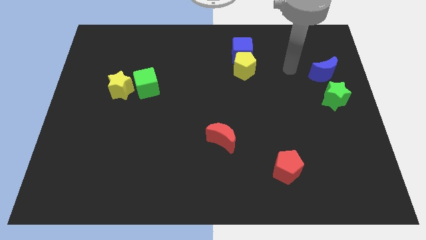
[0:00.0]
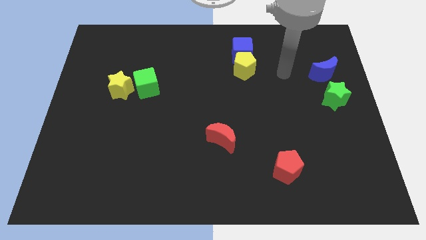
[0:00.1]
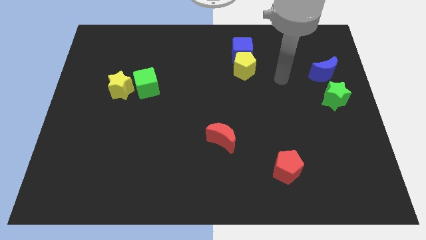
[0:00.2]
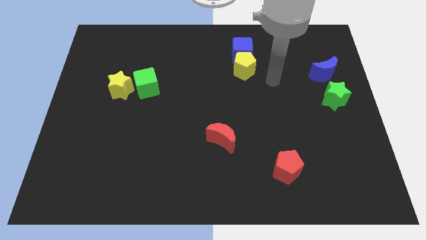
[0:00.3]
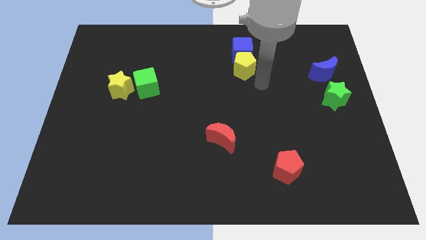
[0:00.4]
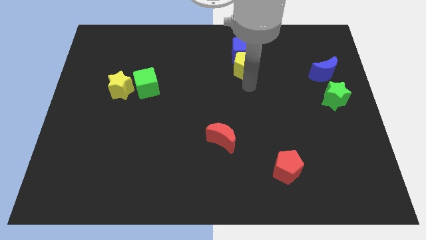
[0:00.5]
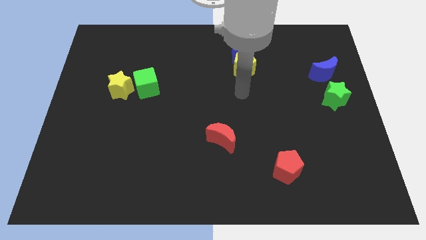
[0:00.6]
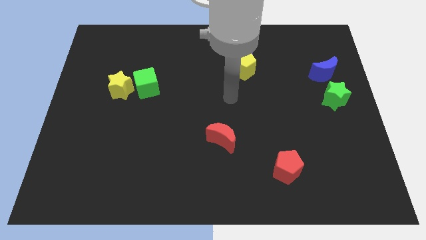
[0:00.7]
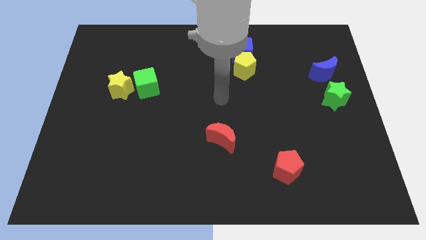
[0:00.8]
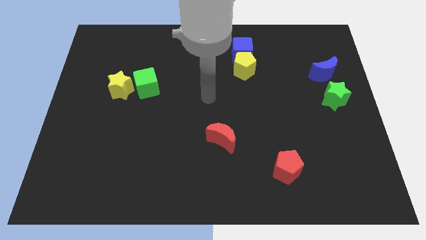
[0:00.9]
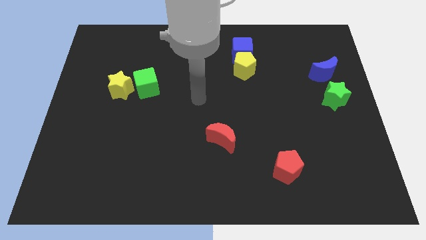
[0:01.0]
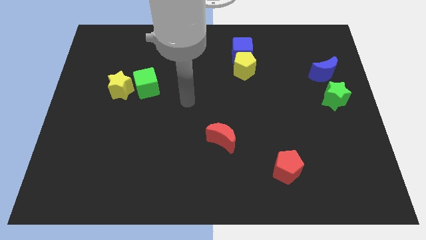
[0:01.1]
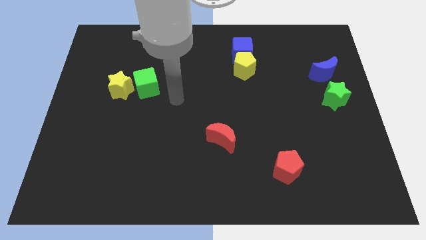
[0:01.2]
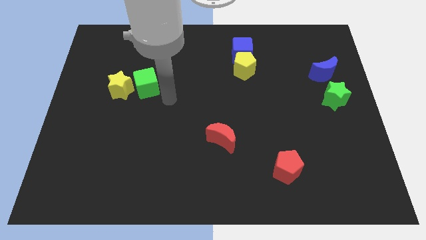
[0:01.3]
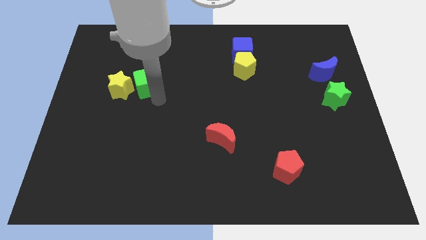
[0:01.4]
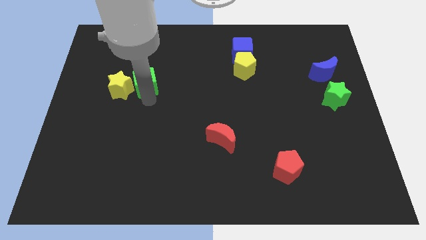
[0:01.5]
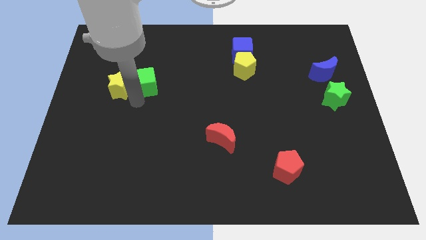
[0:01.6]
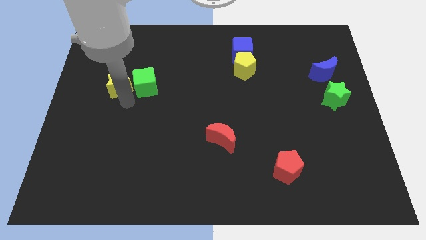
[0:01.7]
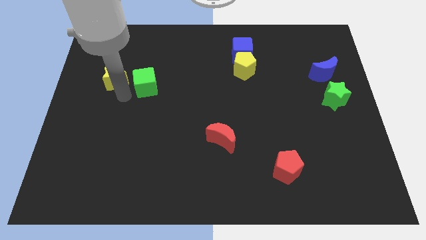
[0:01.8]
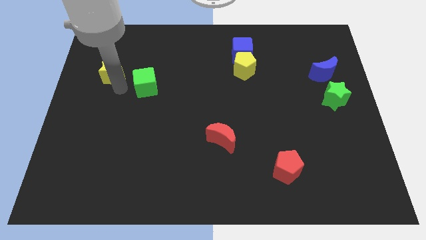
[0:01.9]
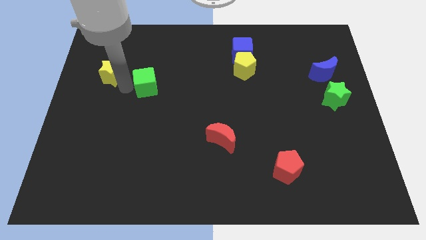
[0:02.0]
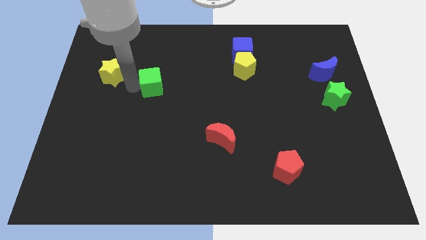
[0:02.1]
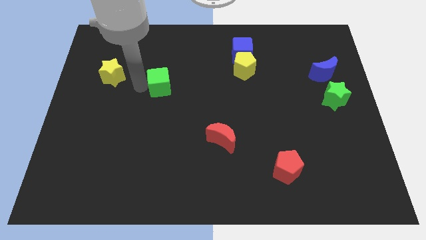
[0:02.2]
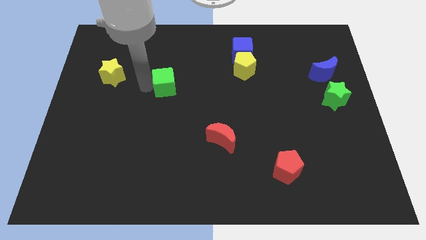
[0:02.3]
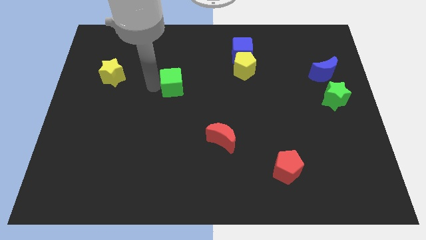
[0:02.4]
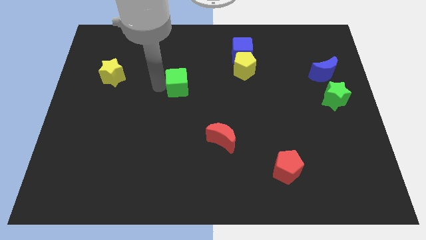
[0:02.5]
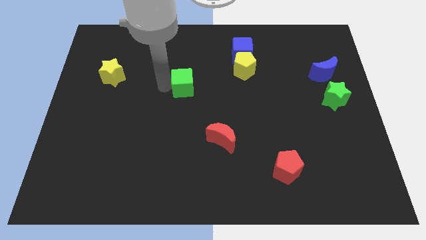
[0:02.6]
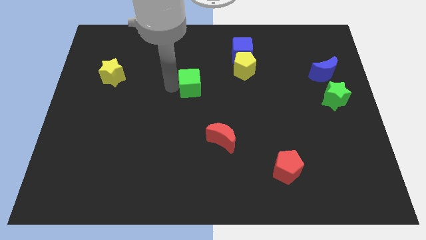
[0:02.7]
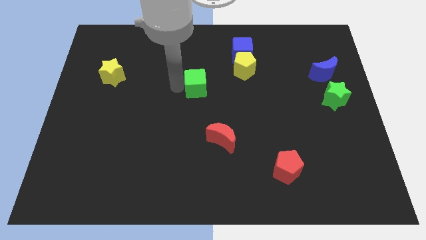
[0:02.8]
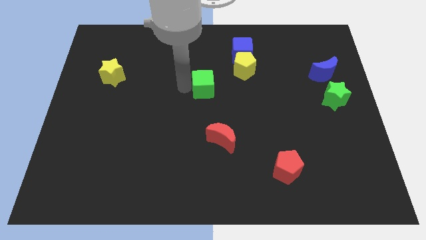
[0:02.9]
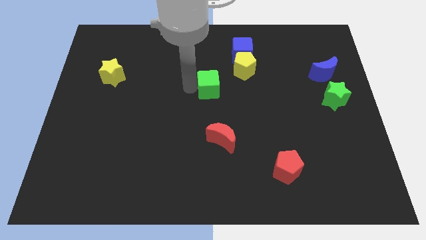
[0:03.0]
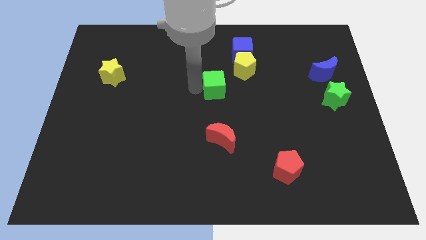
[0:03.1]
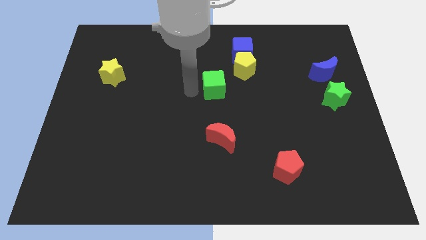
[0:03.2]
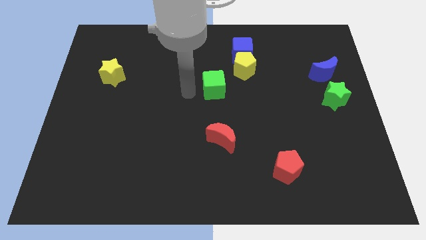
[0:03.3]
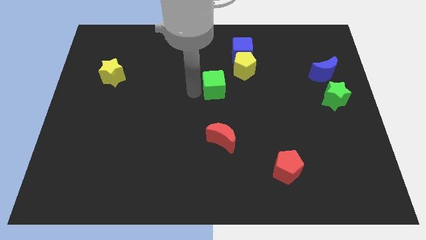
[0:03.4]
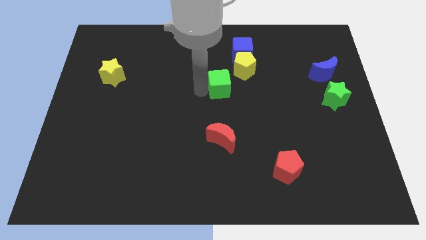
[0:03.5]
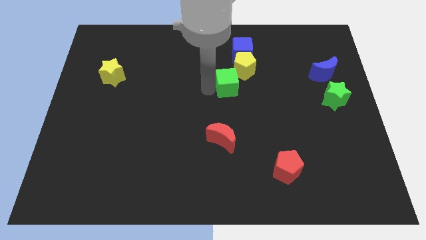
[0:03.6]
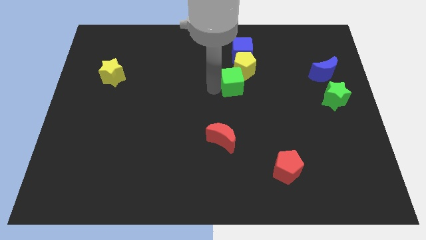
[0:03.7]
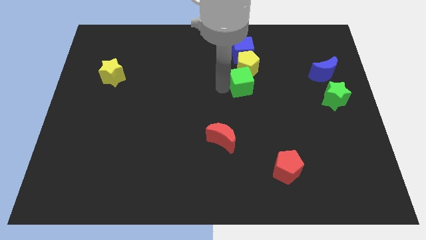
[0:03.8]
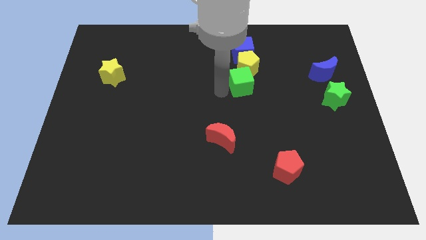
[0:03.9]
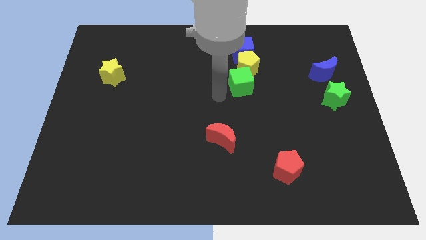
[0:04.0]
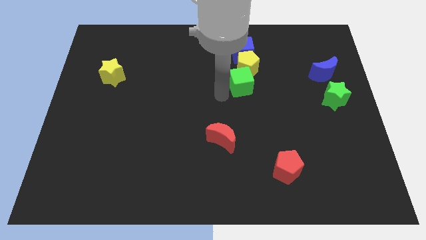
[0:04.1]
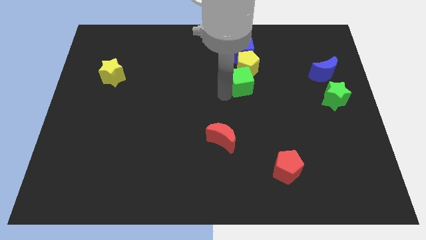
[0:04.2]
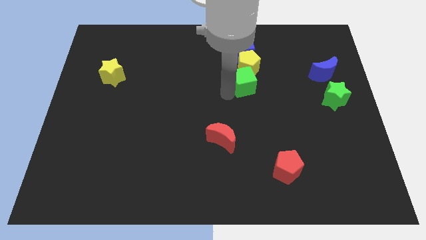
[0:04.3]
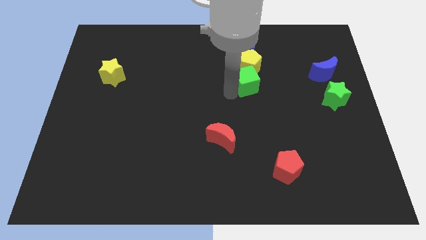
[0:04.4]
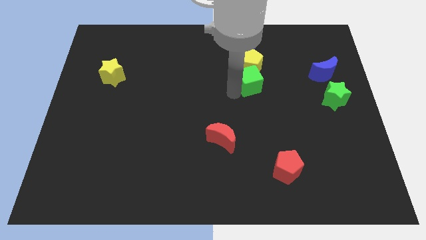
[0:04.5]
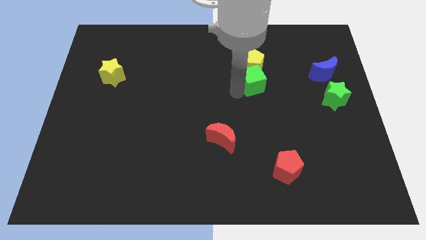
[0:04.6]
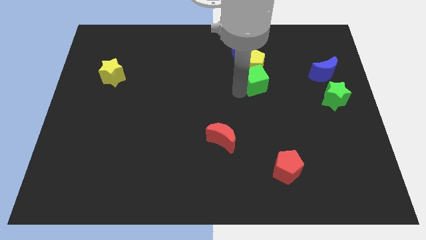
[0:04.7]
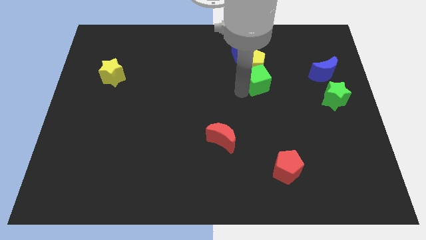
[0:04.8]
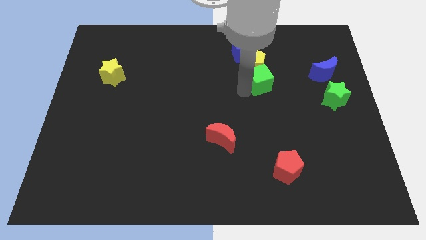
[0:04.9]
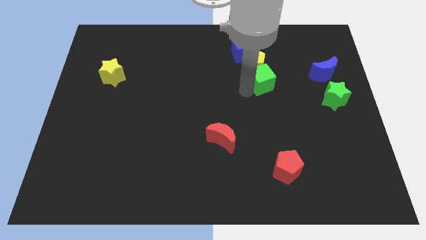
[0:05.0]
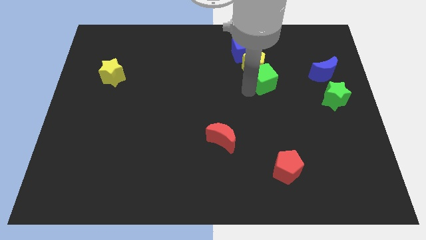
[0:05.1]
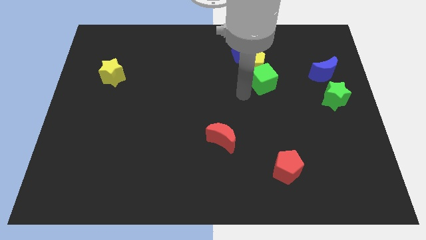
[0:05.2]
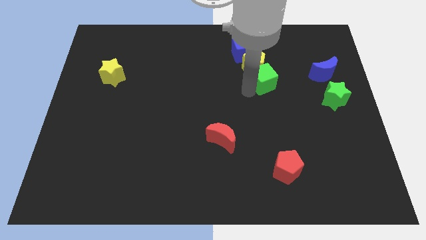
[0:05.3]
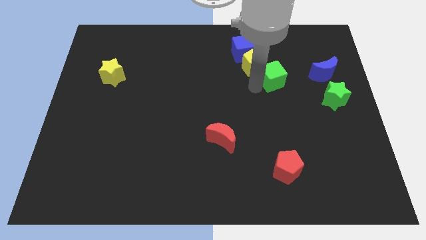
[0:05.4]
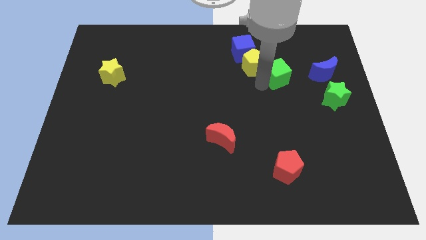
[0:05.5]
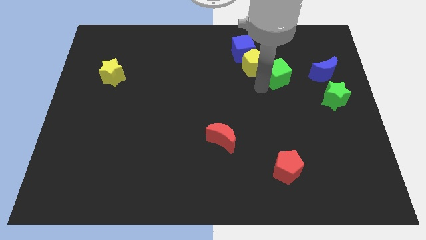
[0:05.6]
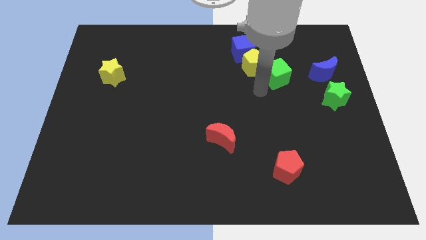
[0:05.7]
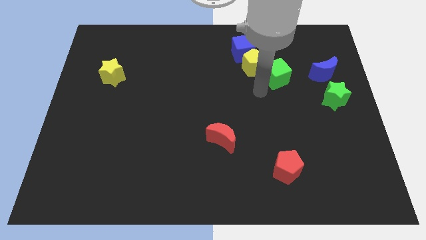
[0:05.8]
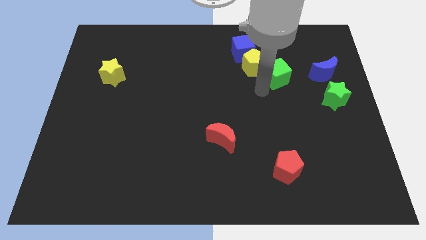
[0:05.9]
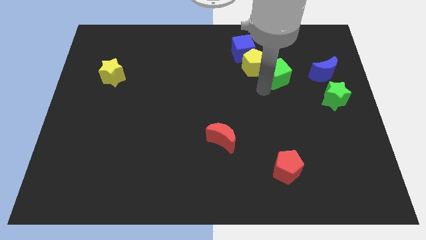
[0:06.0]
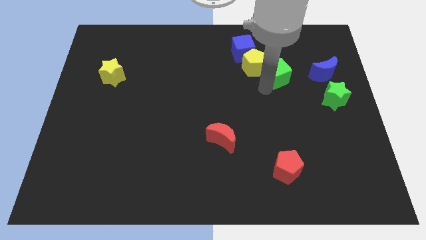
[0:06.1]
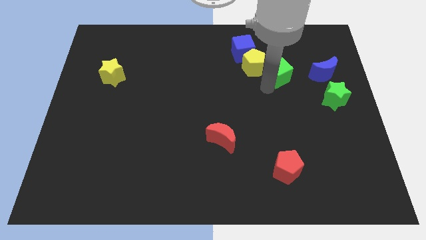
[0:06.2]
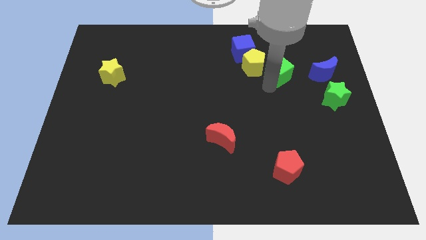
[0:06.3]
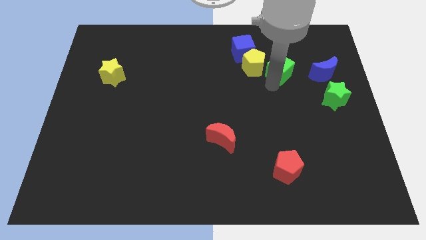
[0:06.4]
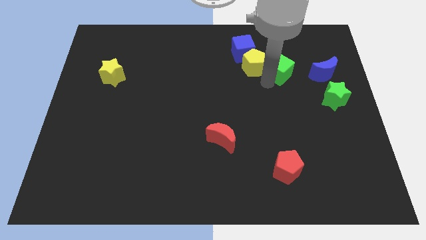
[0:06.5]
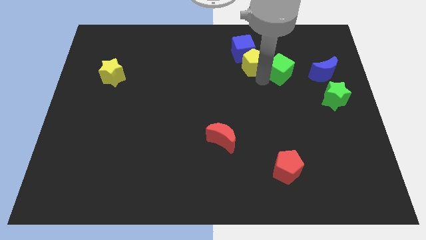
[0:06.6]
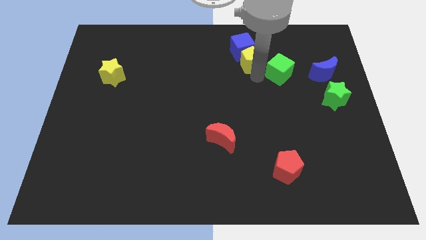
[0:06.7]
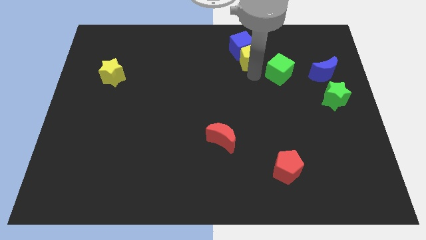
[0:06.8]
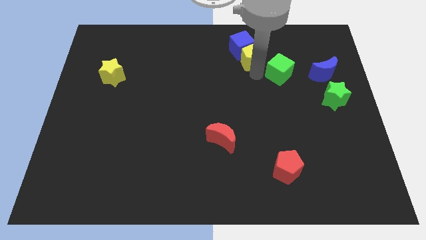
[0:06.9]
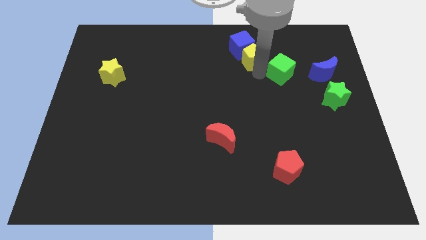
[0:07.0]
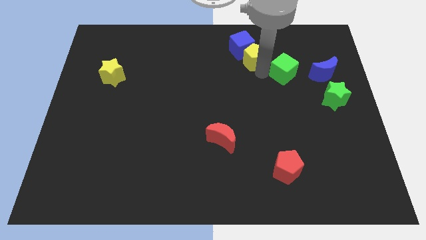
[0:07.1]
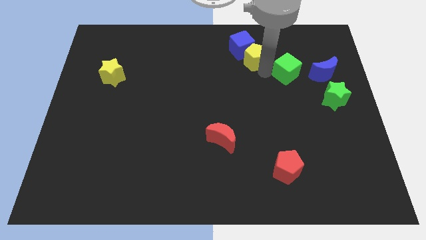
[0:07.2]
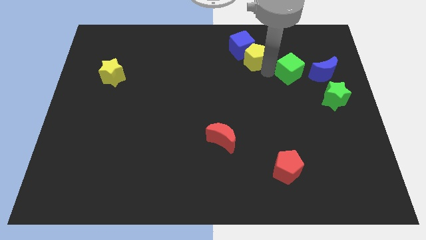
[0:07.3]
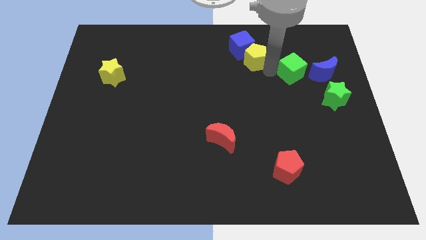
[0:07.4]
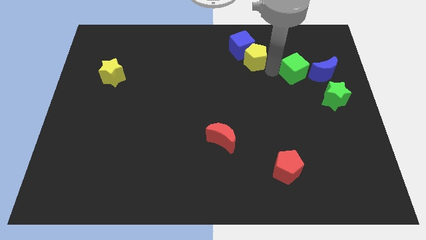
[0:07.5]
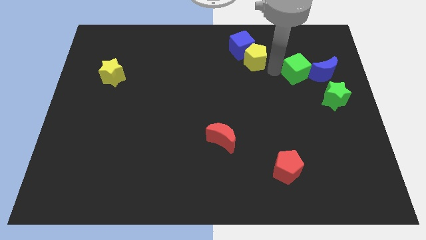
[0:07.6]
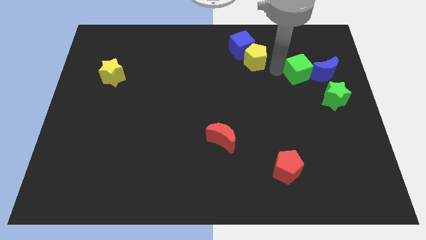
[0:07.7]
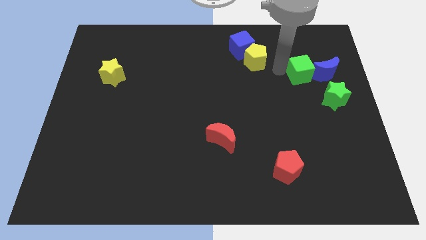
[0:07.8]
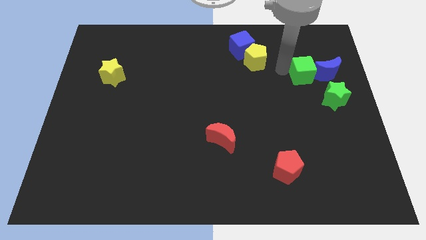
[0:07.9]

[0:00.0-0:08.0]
move the green cube towards the blue moon
